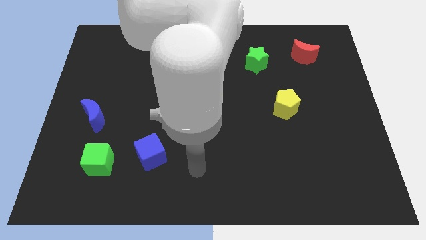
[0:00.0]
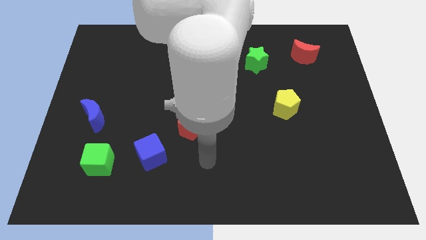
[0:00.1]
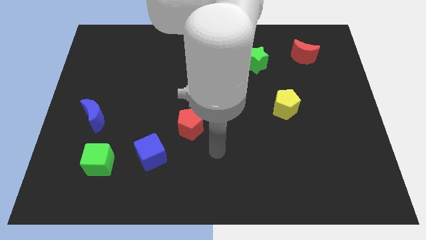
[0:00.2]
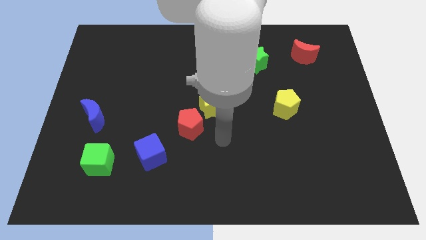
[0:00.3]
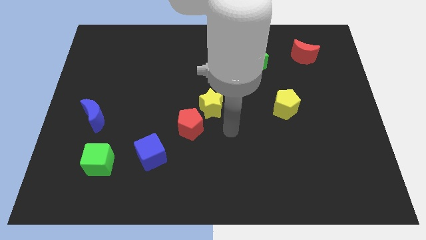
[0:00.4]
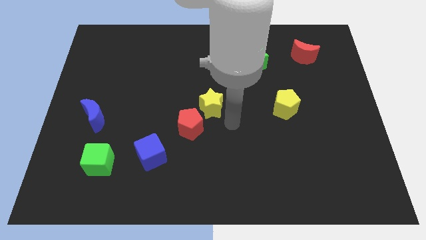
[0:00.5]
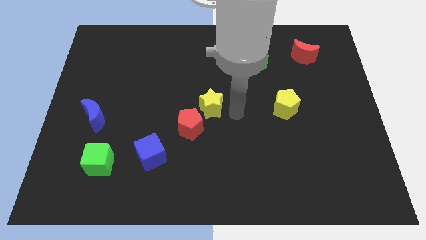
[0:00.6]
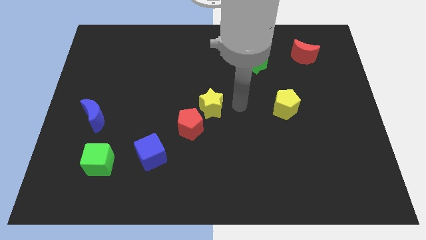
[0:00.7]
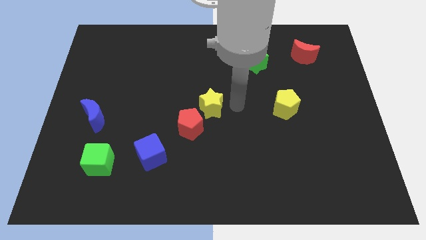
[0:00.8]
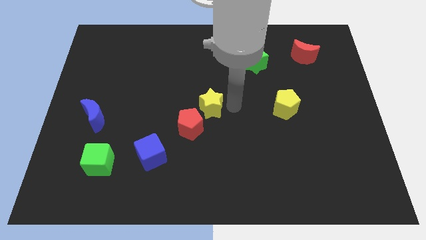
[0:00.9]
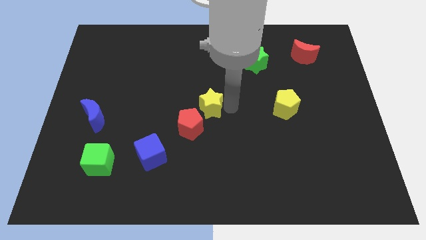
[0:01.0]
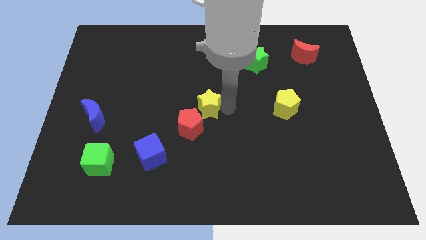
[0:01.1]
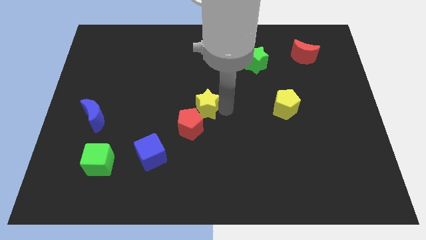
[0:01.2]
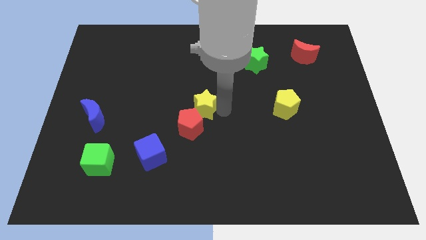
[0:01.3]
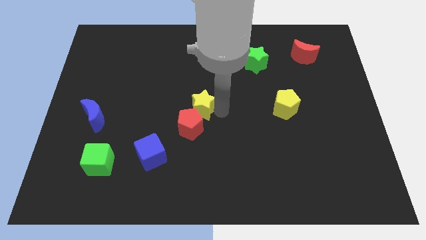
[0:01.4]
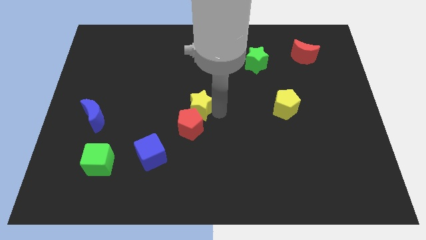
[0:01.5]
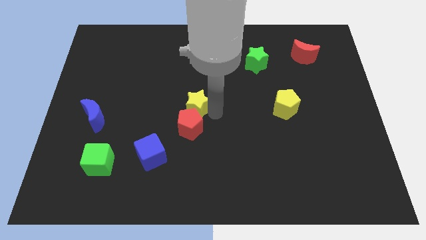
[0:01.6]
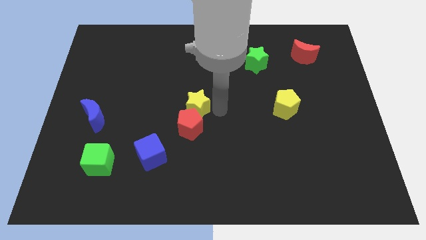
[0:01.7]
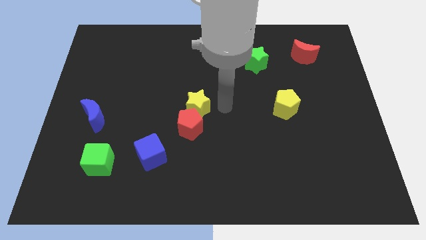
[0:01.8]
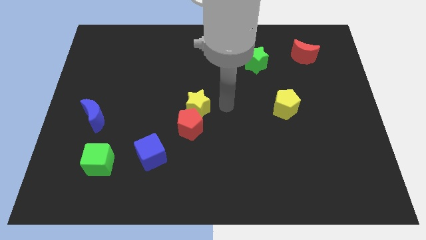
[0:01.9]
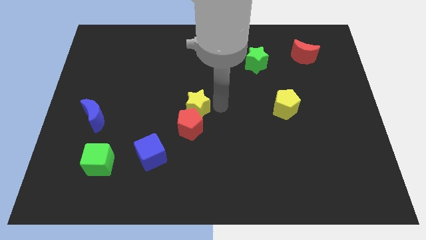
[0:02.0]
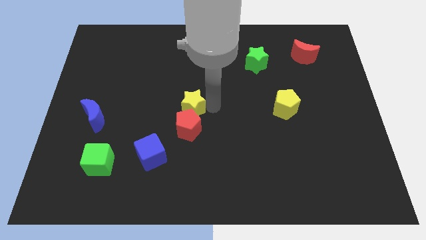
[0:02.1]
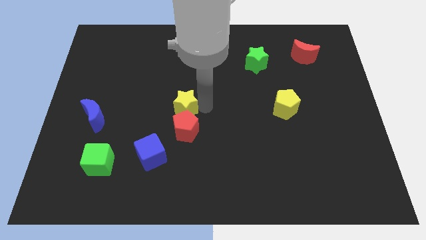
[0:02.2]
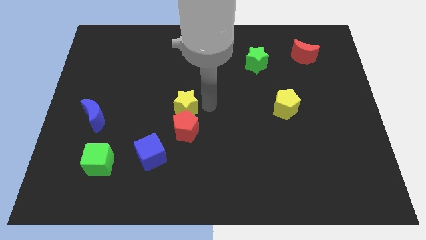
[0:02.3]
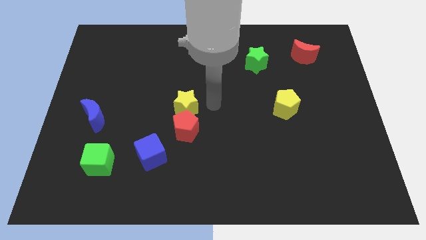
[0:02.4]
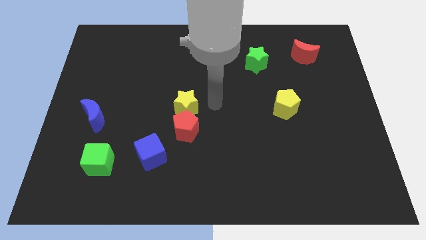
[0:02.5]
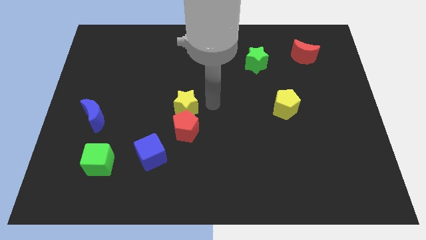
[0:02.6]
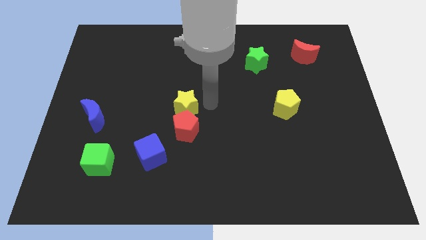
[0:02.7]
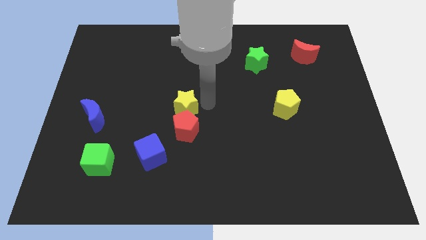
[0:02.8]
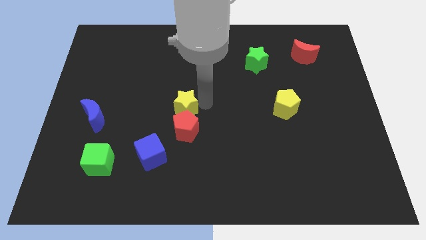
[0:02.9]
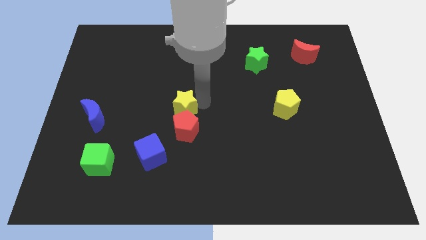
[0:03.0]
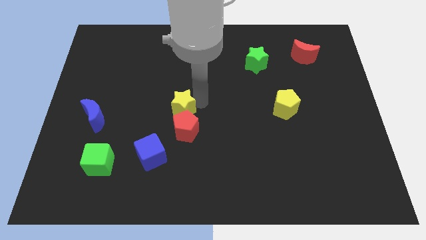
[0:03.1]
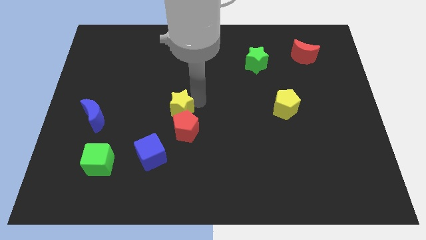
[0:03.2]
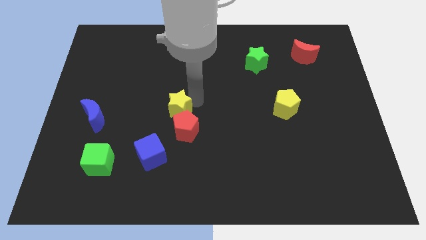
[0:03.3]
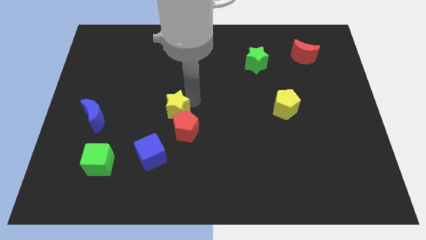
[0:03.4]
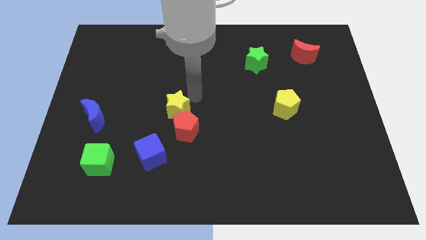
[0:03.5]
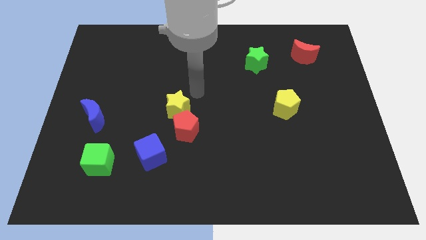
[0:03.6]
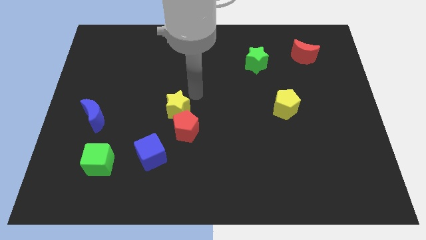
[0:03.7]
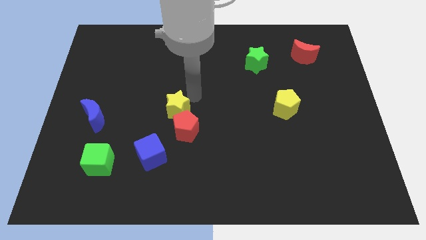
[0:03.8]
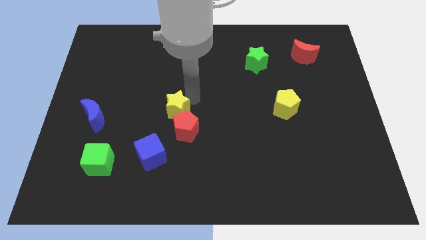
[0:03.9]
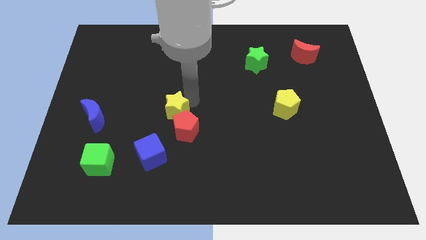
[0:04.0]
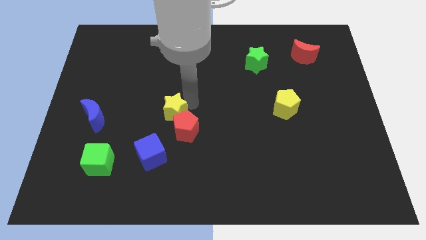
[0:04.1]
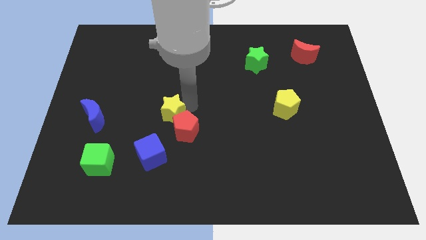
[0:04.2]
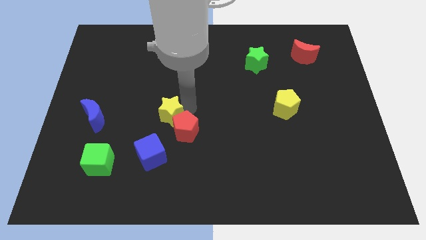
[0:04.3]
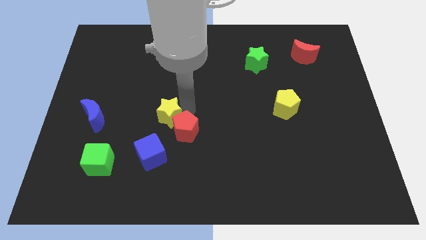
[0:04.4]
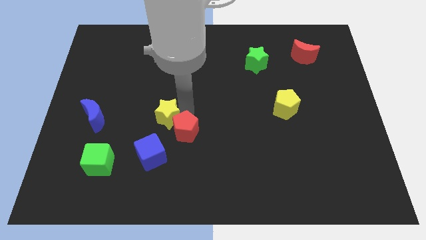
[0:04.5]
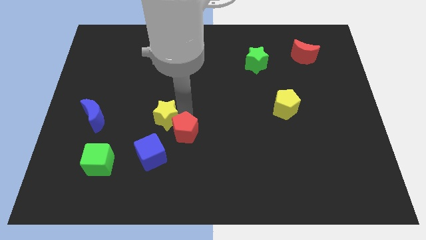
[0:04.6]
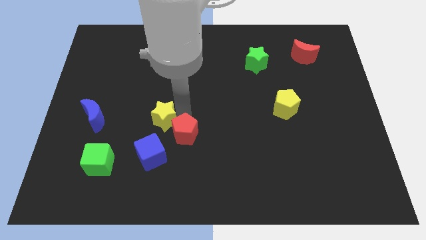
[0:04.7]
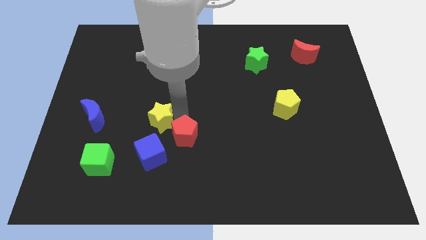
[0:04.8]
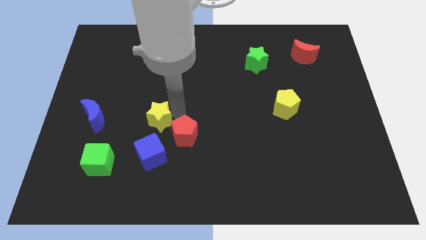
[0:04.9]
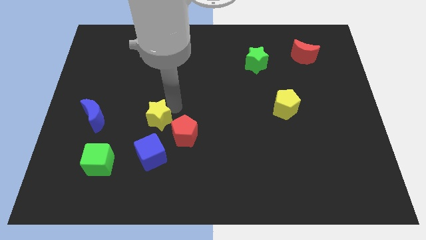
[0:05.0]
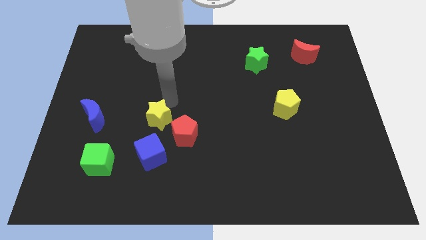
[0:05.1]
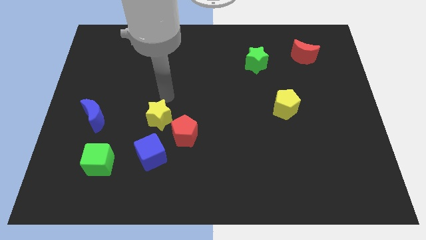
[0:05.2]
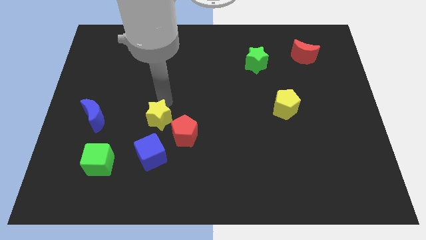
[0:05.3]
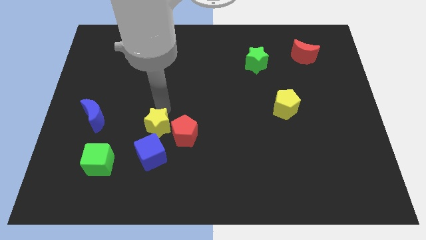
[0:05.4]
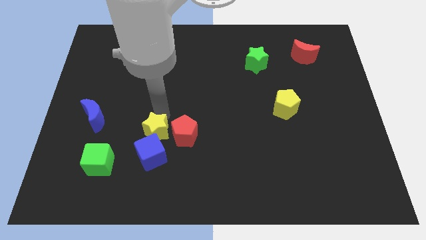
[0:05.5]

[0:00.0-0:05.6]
move the yellow star next to the blue cube
